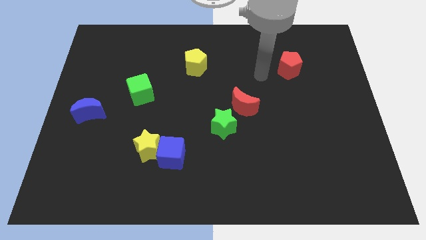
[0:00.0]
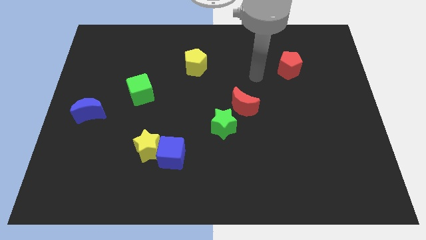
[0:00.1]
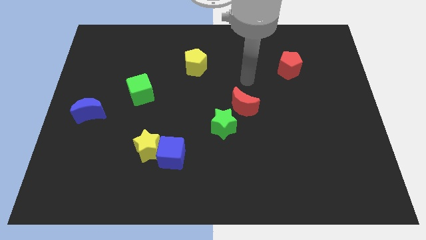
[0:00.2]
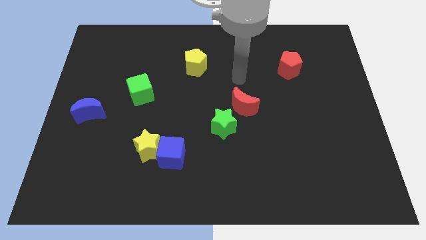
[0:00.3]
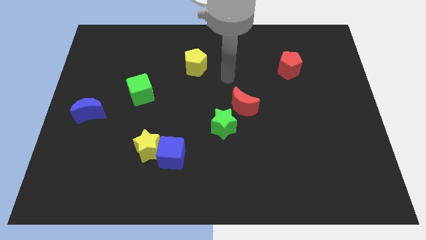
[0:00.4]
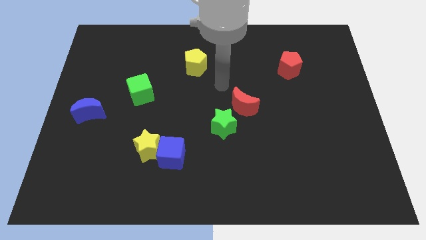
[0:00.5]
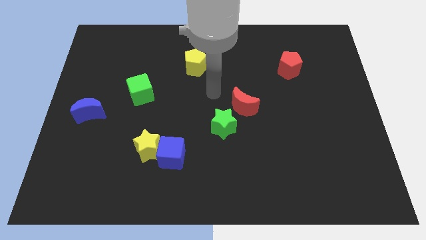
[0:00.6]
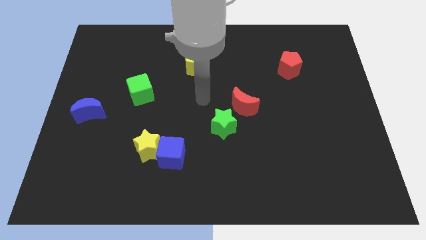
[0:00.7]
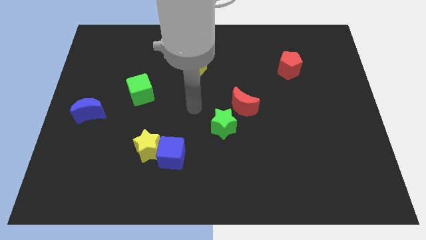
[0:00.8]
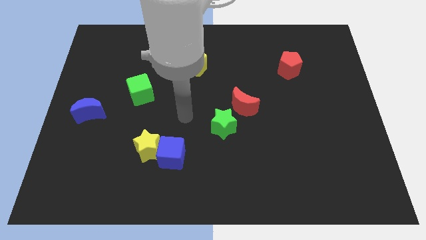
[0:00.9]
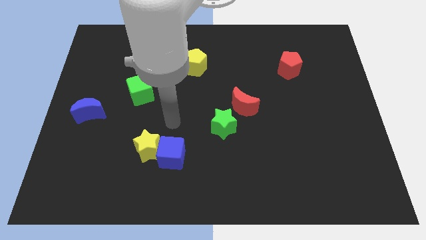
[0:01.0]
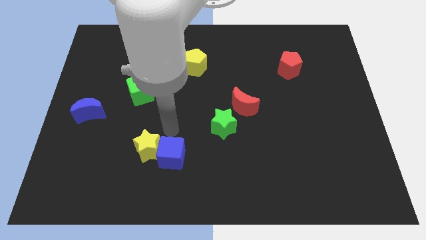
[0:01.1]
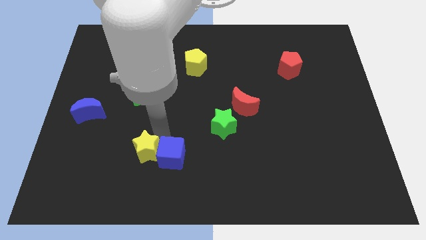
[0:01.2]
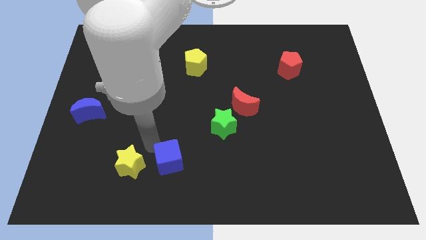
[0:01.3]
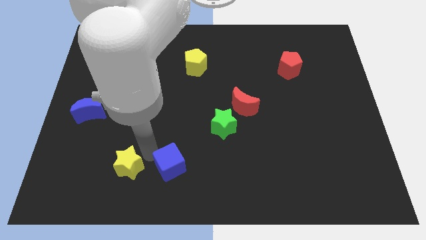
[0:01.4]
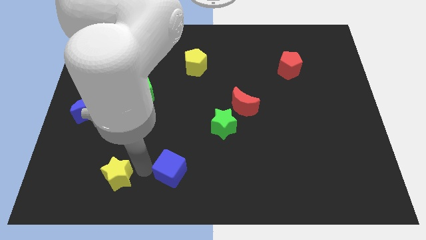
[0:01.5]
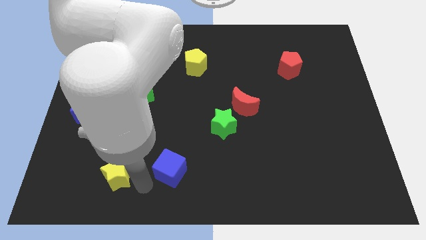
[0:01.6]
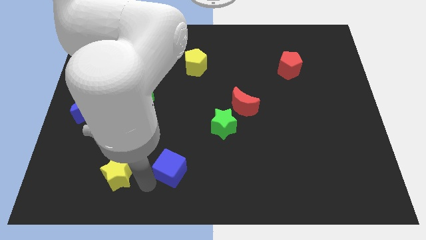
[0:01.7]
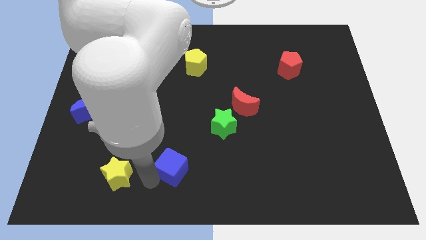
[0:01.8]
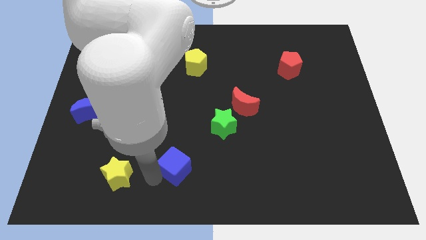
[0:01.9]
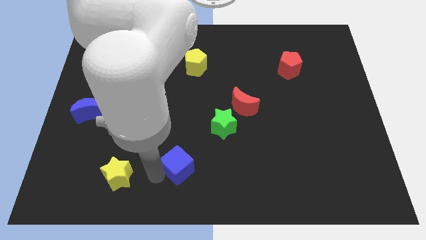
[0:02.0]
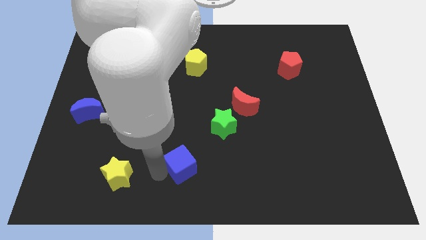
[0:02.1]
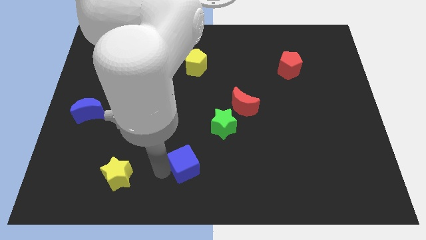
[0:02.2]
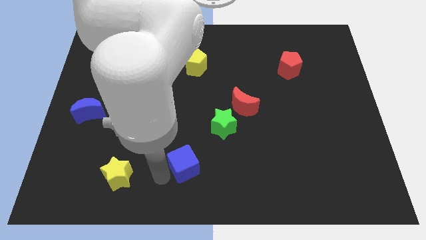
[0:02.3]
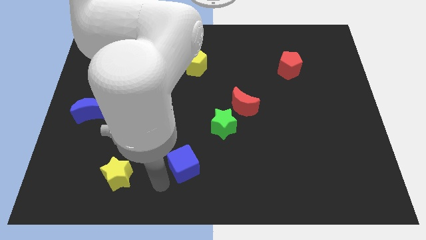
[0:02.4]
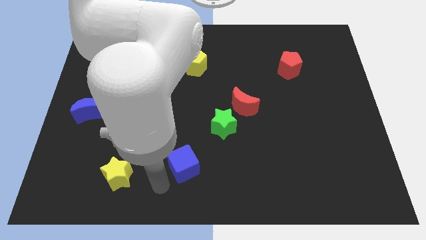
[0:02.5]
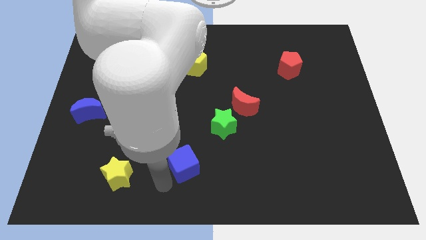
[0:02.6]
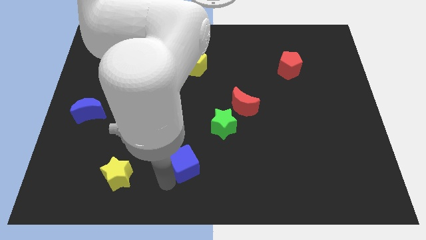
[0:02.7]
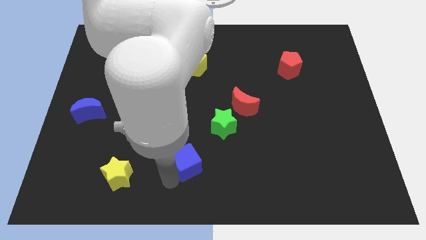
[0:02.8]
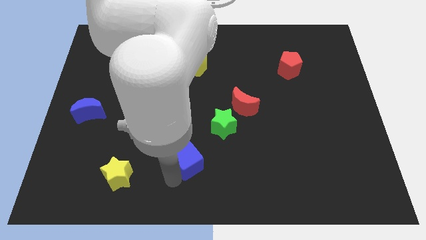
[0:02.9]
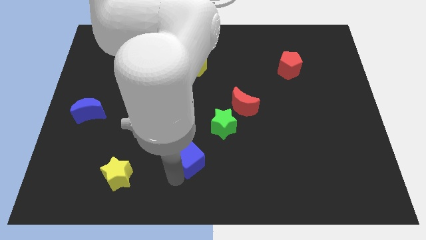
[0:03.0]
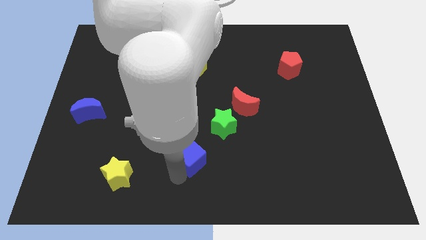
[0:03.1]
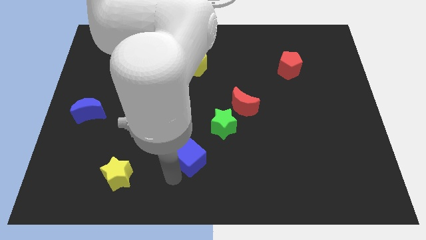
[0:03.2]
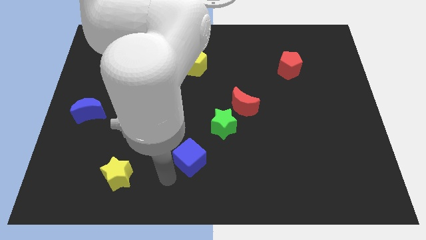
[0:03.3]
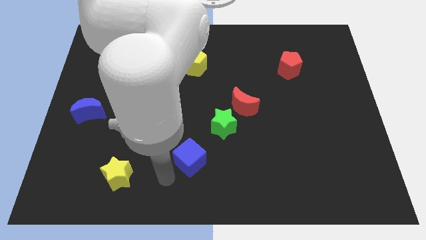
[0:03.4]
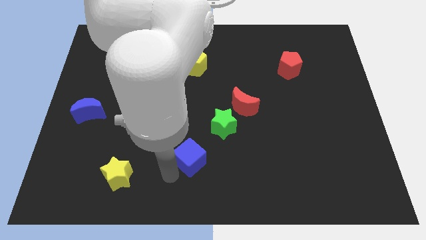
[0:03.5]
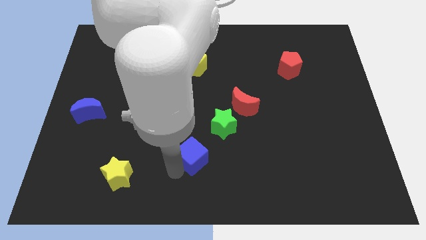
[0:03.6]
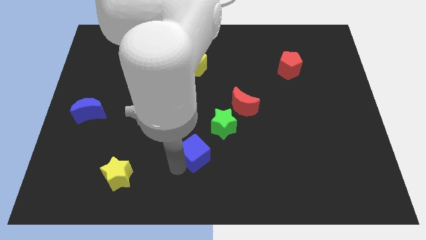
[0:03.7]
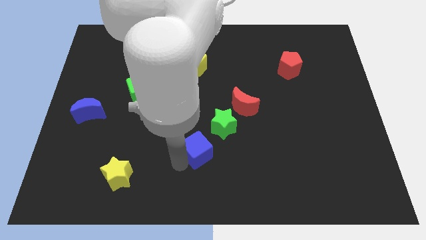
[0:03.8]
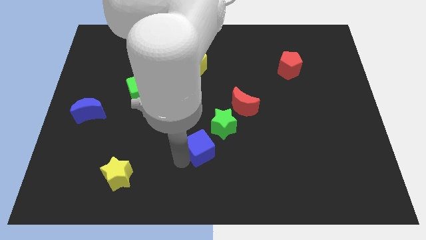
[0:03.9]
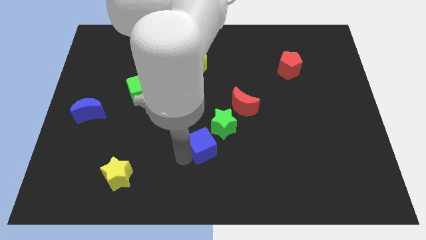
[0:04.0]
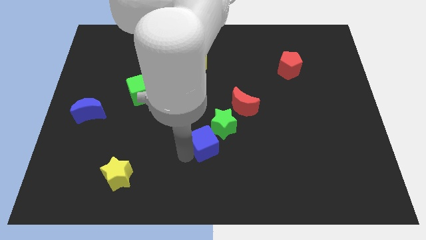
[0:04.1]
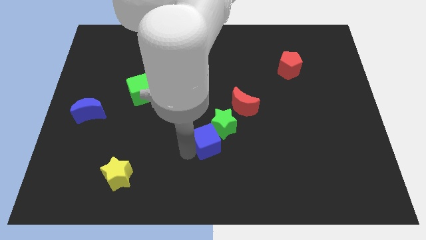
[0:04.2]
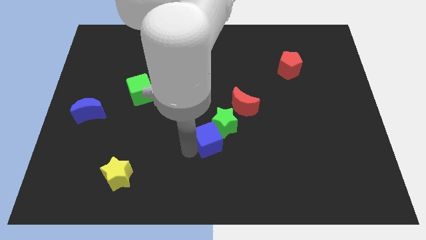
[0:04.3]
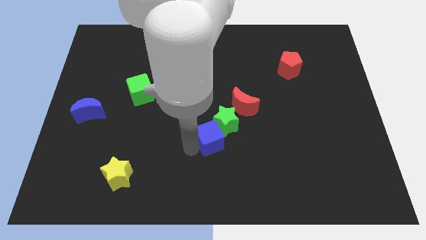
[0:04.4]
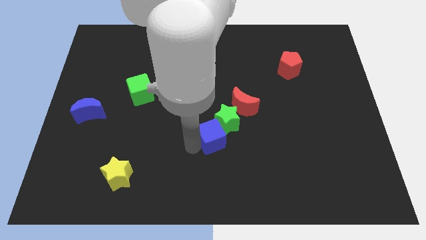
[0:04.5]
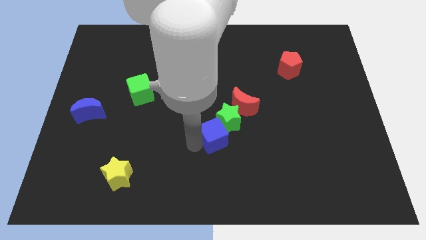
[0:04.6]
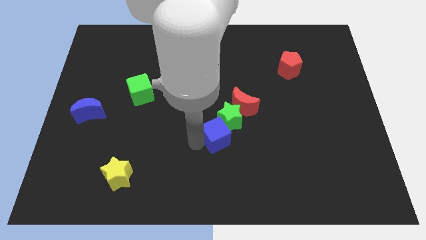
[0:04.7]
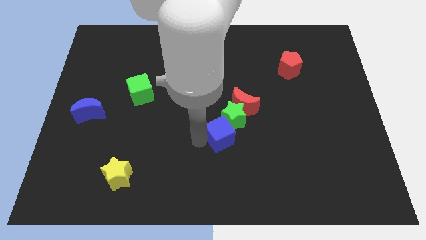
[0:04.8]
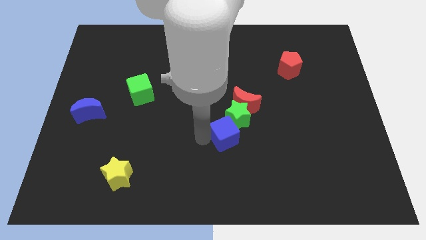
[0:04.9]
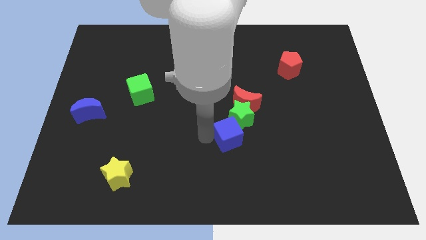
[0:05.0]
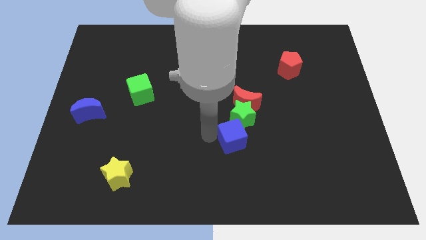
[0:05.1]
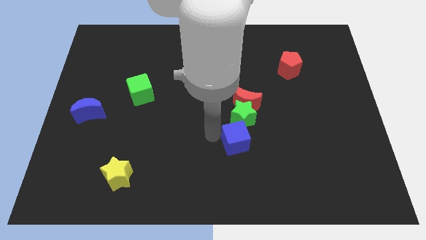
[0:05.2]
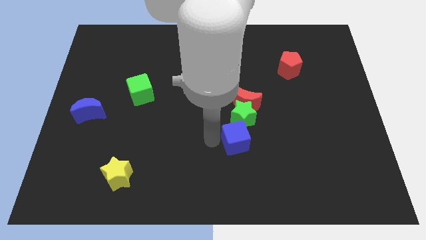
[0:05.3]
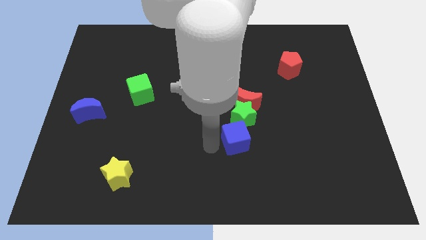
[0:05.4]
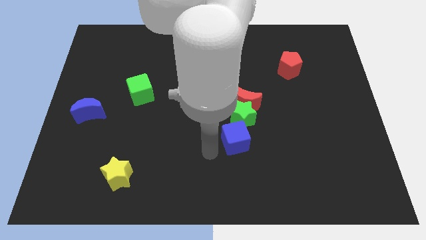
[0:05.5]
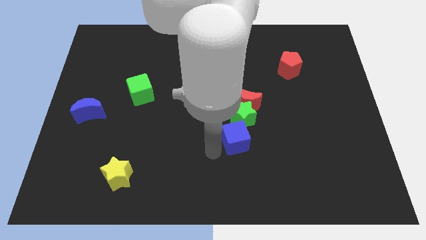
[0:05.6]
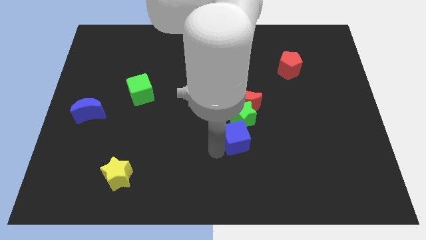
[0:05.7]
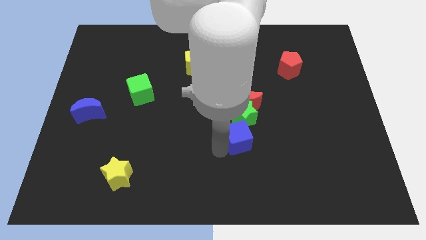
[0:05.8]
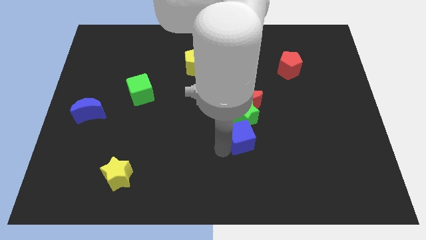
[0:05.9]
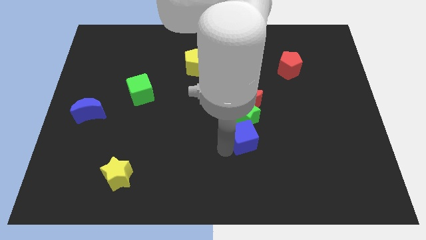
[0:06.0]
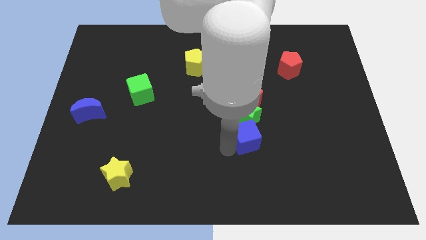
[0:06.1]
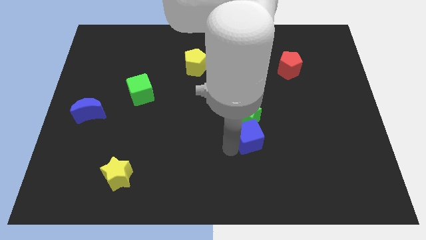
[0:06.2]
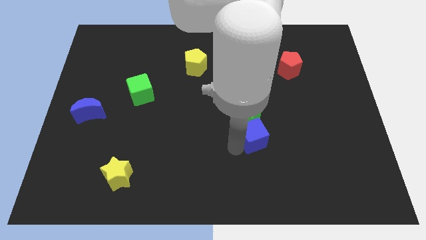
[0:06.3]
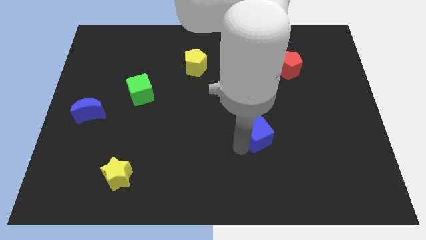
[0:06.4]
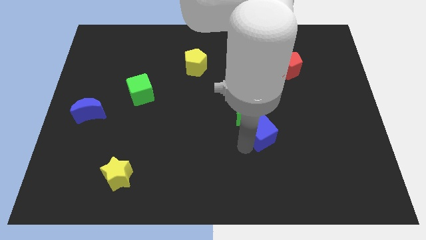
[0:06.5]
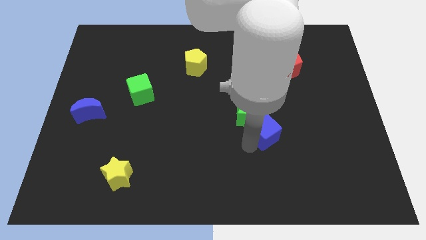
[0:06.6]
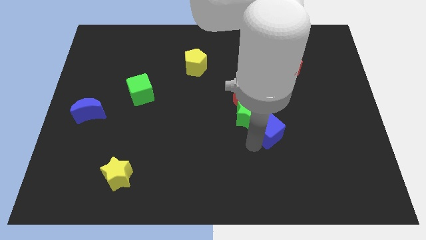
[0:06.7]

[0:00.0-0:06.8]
move the blue cube to the right side of the green star
